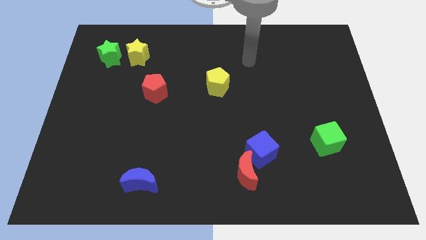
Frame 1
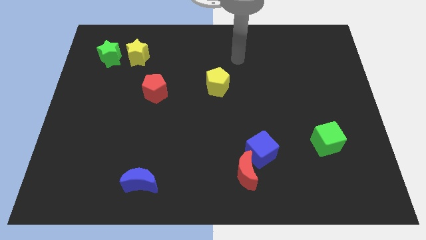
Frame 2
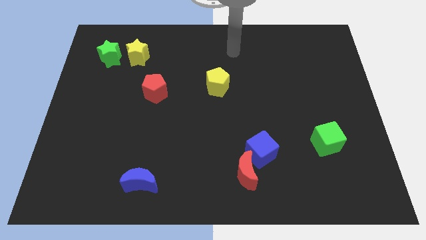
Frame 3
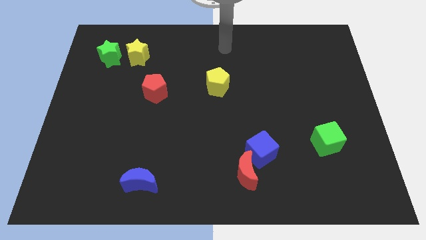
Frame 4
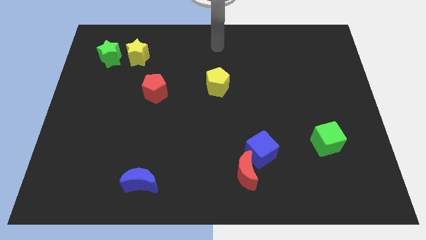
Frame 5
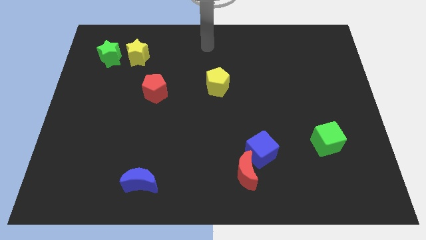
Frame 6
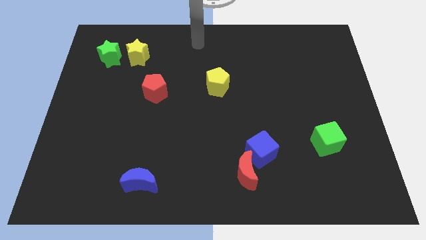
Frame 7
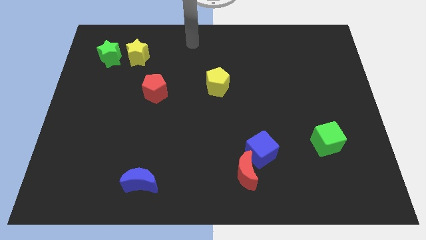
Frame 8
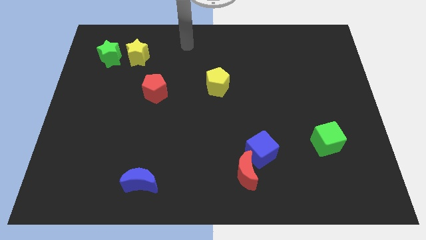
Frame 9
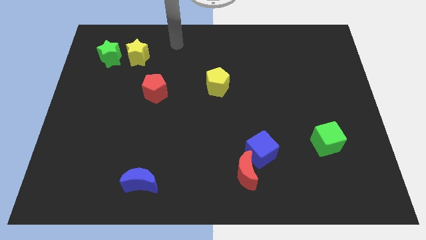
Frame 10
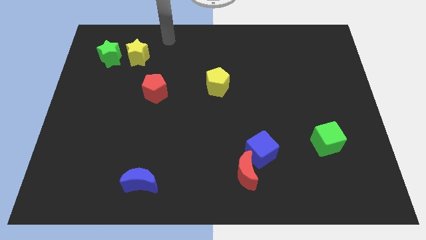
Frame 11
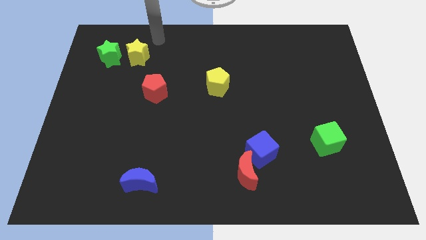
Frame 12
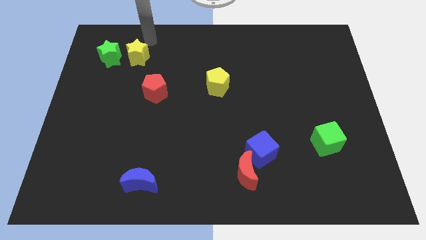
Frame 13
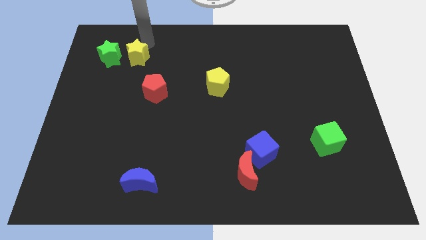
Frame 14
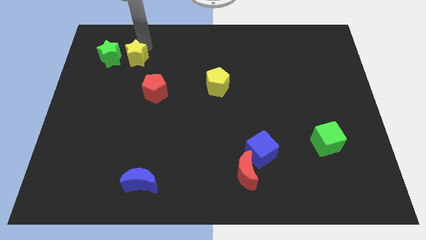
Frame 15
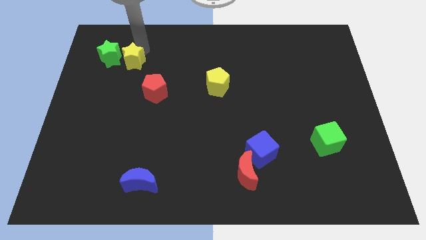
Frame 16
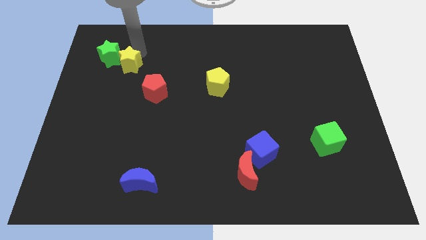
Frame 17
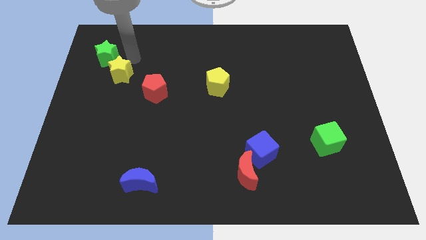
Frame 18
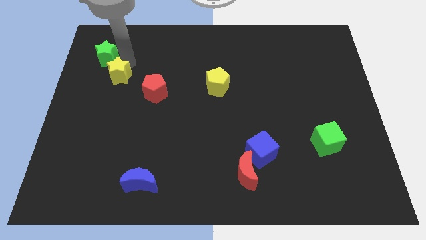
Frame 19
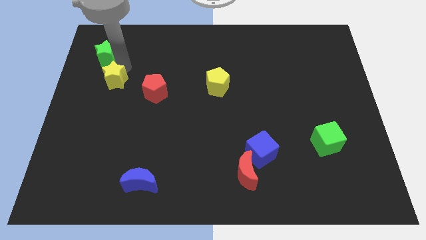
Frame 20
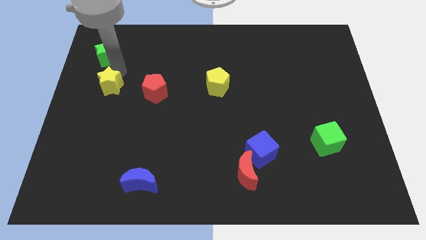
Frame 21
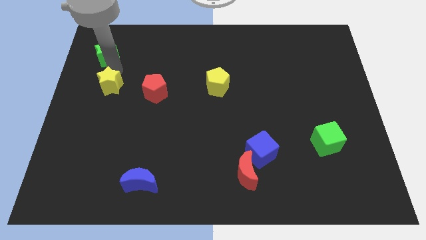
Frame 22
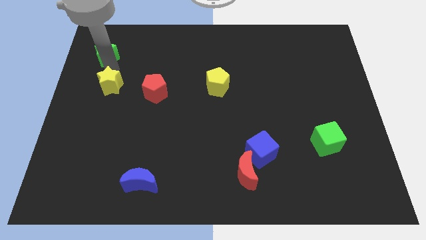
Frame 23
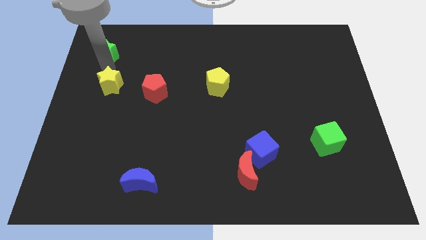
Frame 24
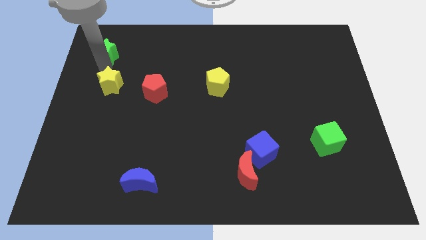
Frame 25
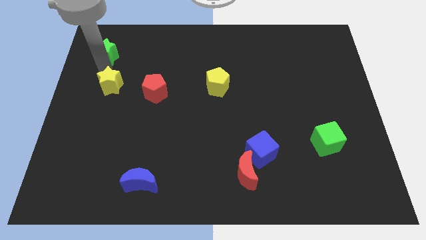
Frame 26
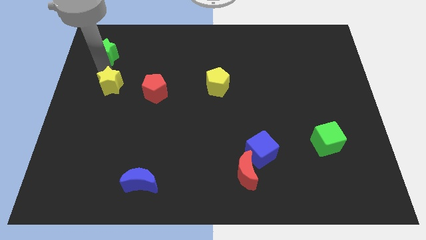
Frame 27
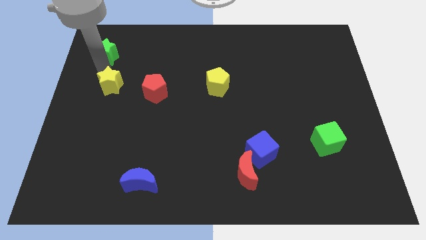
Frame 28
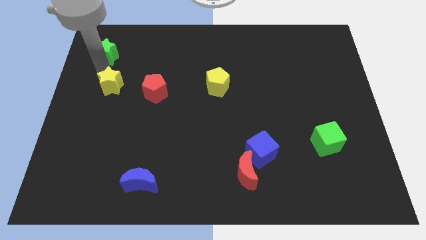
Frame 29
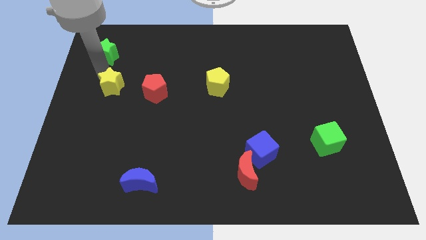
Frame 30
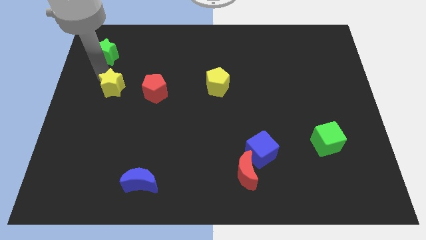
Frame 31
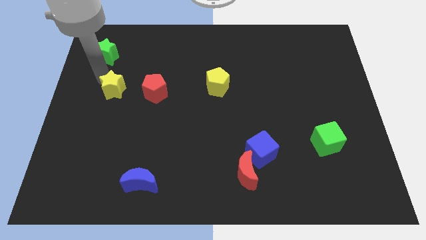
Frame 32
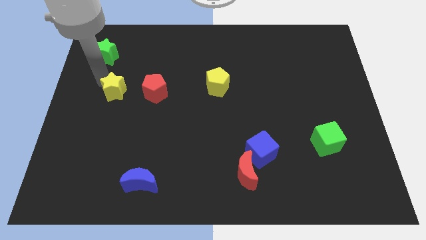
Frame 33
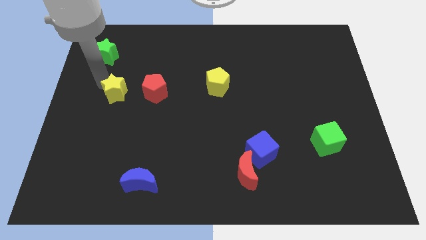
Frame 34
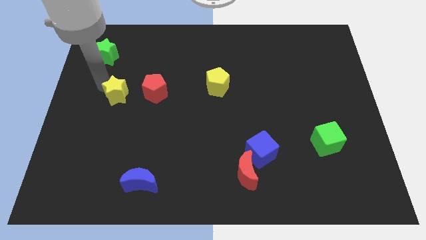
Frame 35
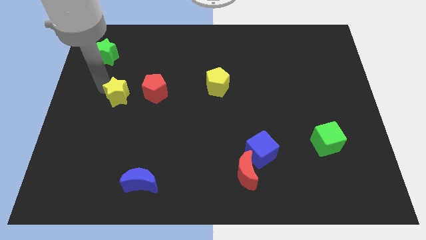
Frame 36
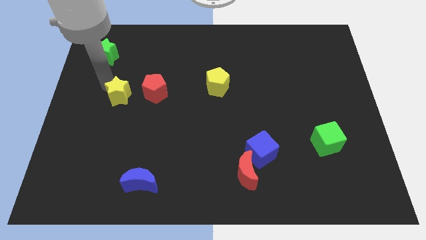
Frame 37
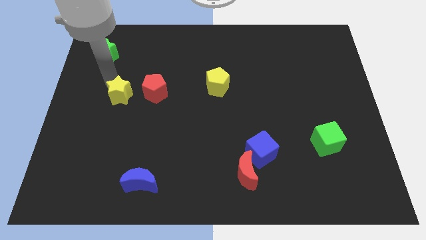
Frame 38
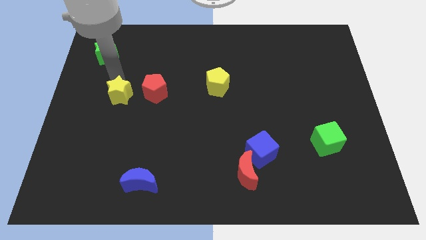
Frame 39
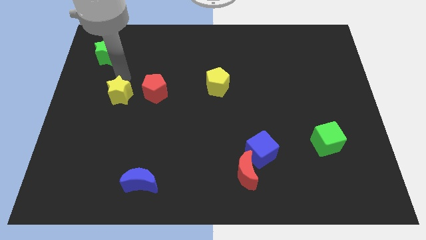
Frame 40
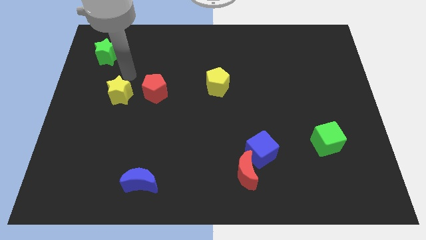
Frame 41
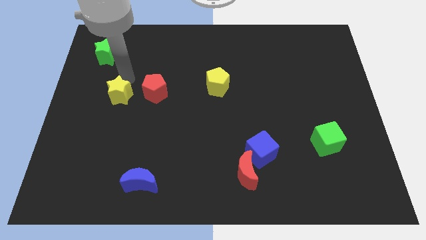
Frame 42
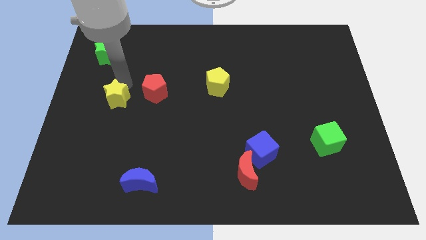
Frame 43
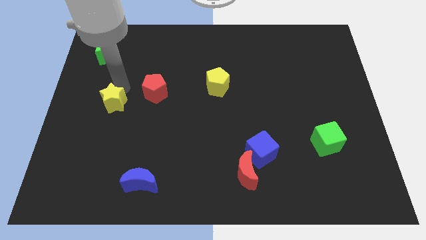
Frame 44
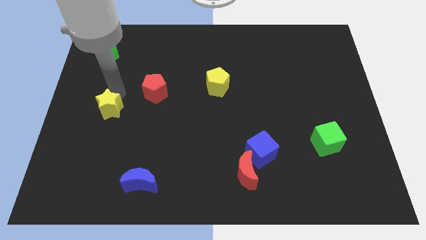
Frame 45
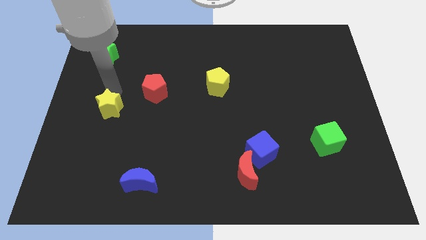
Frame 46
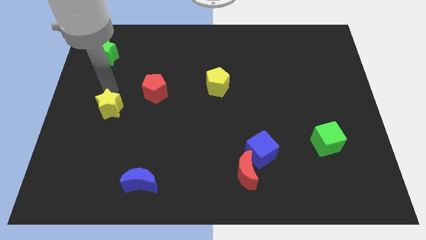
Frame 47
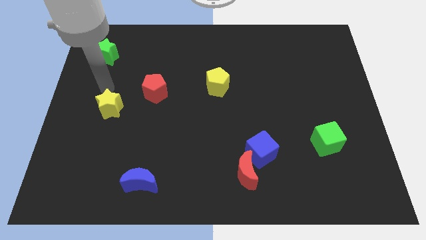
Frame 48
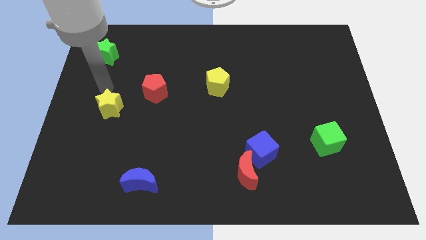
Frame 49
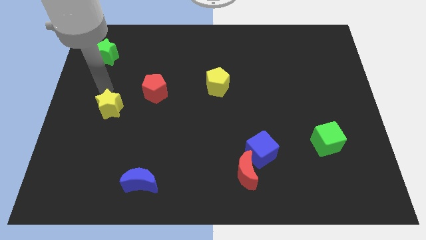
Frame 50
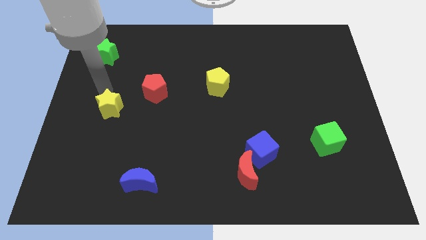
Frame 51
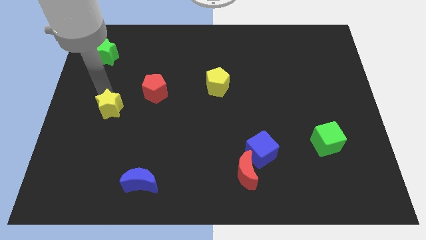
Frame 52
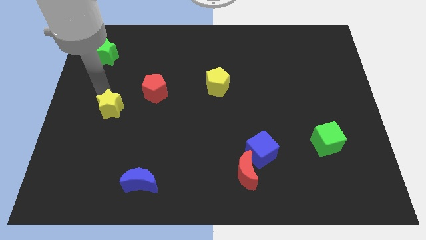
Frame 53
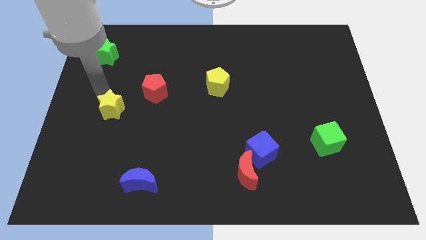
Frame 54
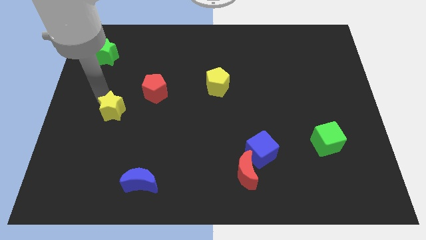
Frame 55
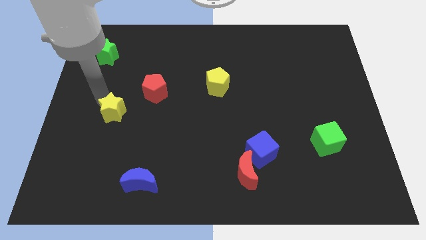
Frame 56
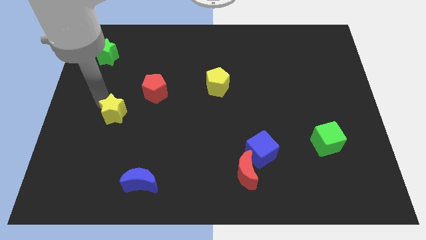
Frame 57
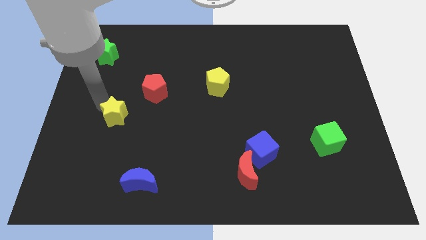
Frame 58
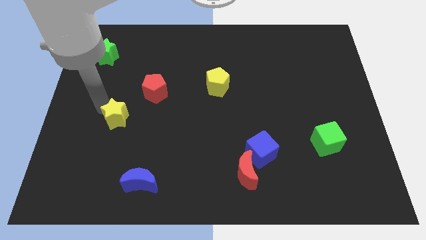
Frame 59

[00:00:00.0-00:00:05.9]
push the yellow star downwards

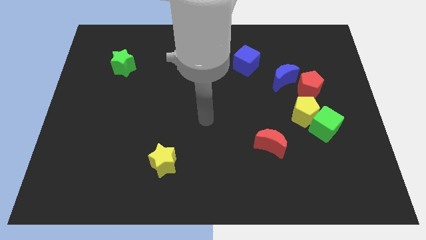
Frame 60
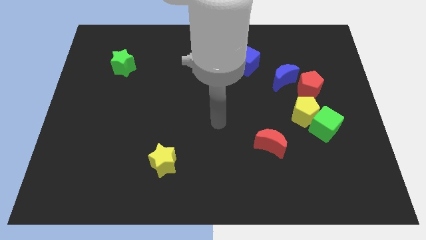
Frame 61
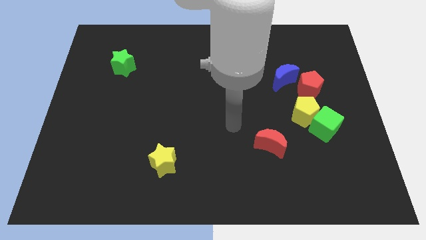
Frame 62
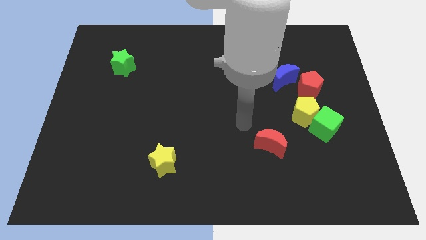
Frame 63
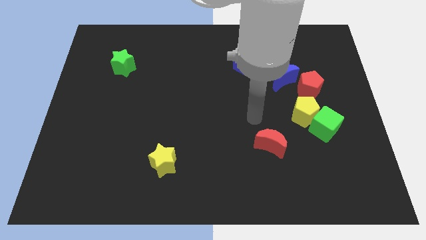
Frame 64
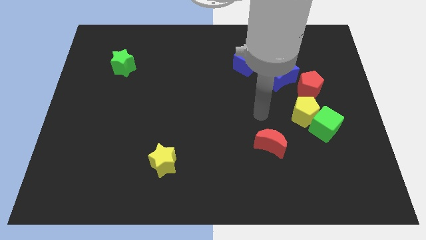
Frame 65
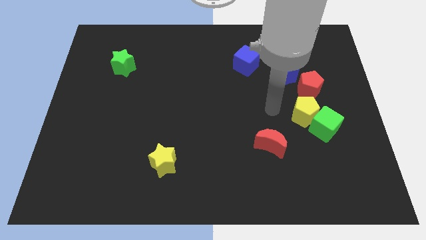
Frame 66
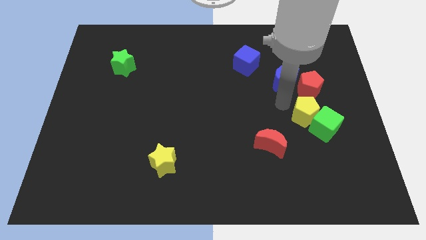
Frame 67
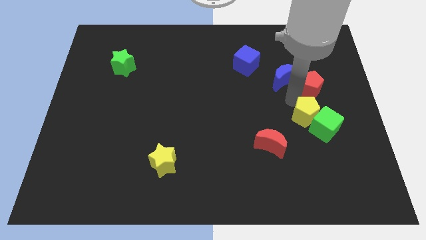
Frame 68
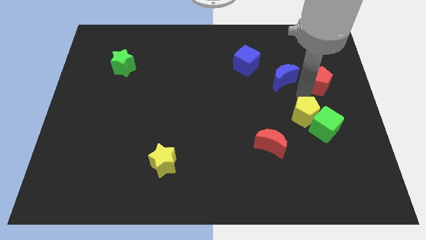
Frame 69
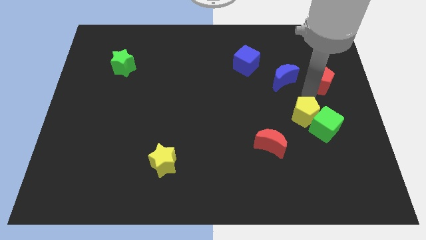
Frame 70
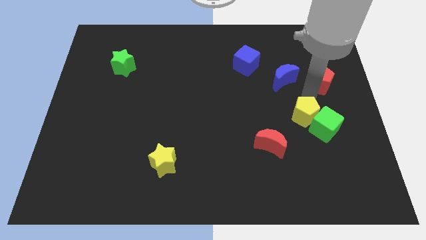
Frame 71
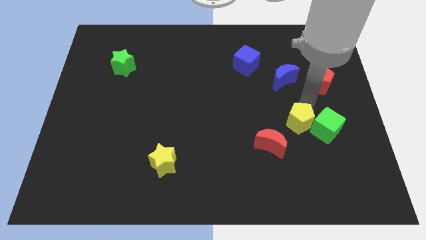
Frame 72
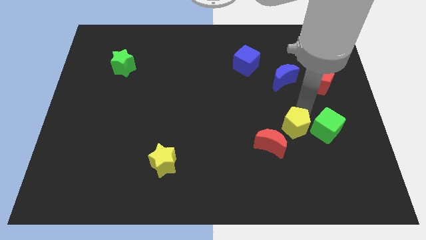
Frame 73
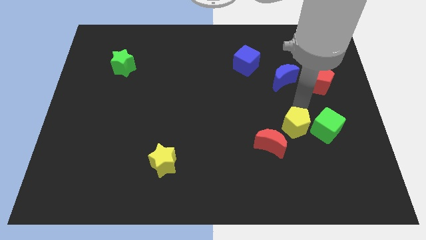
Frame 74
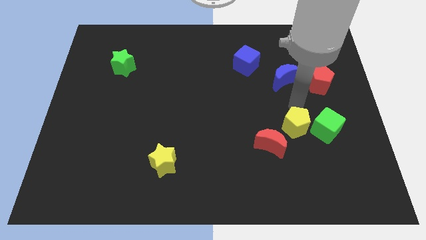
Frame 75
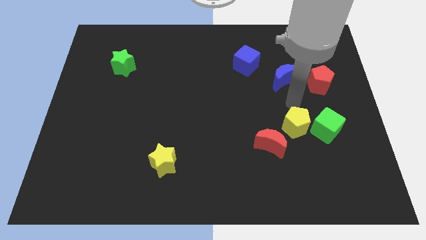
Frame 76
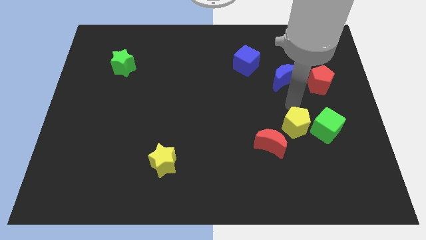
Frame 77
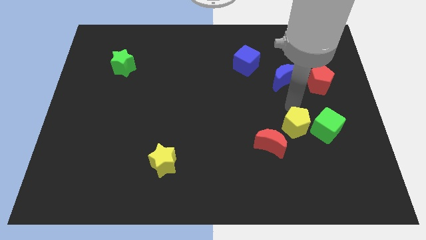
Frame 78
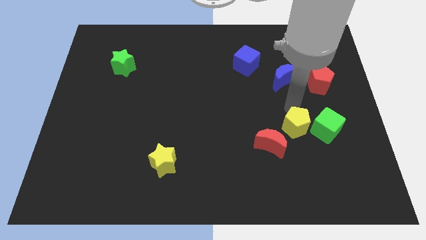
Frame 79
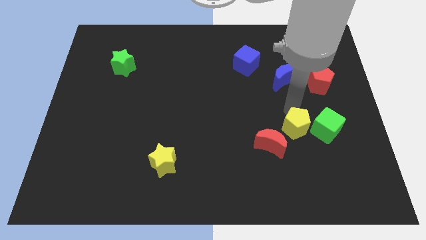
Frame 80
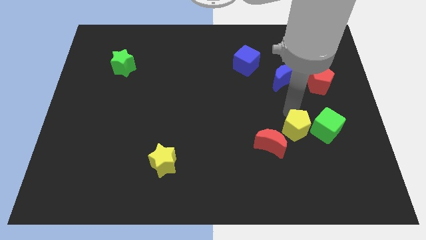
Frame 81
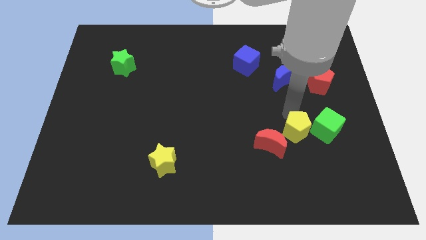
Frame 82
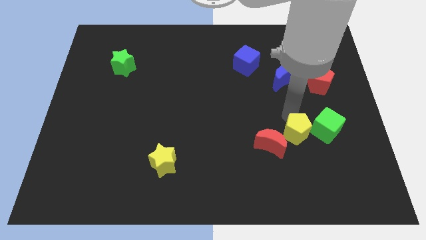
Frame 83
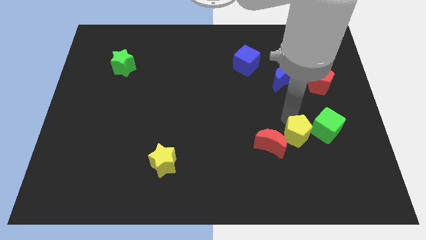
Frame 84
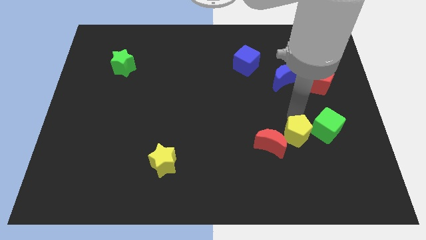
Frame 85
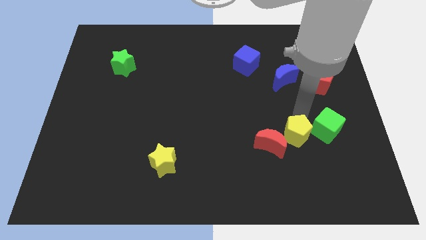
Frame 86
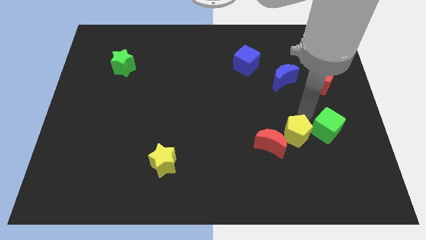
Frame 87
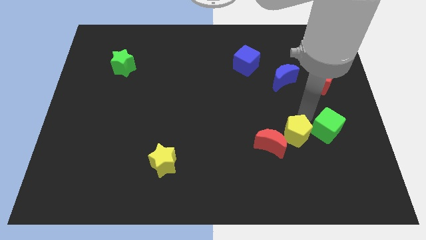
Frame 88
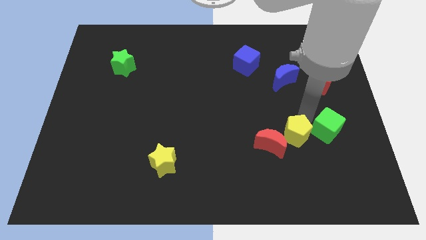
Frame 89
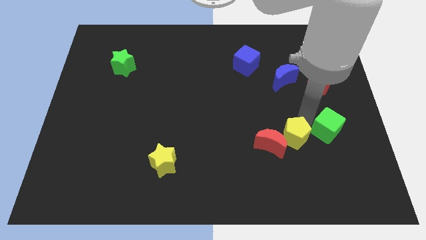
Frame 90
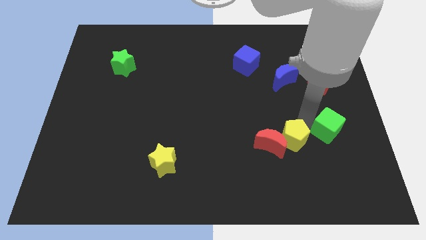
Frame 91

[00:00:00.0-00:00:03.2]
push the yellow pentagon down and to the left diagonally a bit
